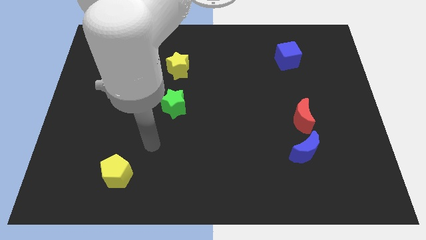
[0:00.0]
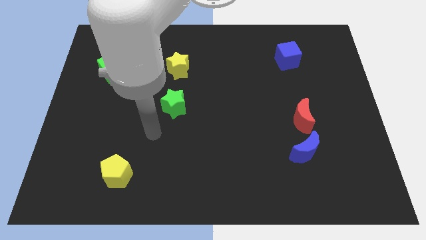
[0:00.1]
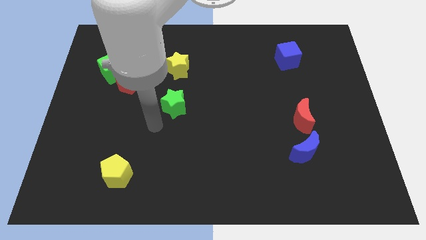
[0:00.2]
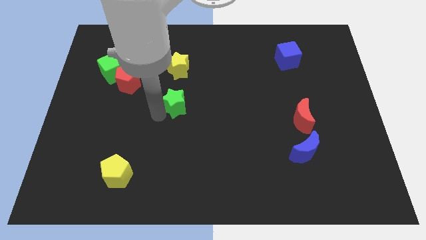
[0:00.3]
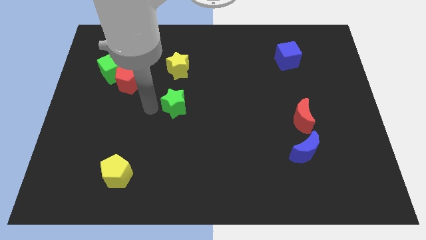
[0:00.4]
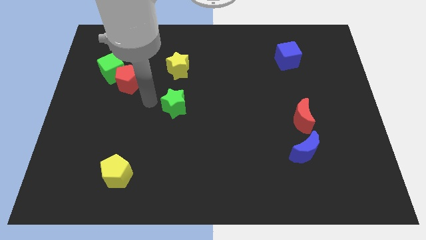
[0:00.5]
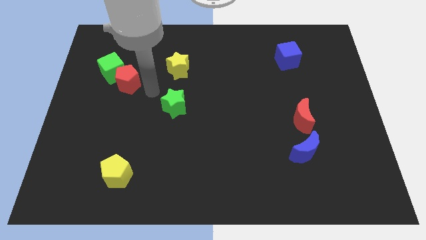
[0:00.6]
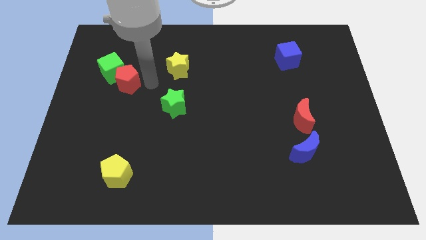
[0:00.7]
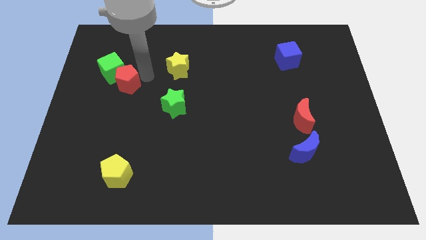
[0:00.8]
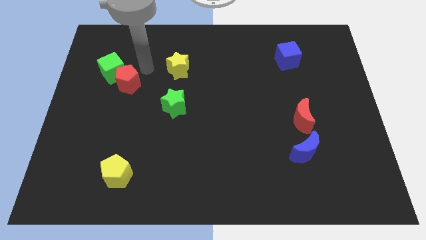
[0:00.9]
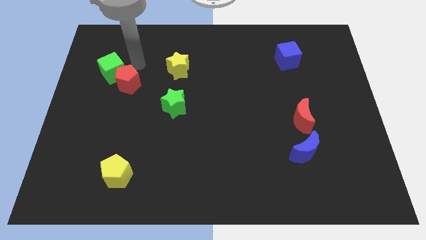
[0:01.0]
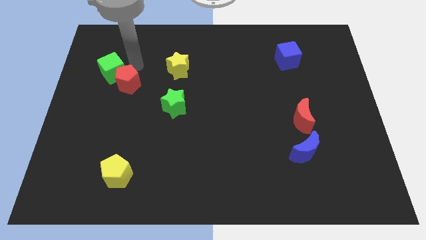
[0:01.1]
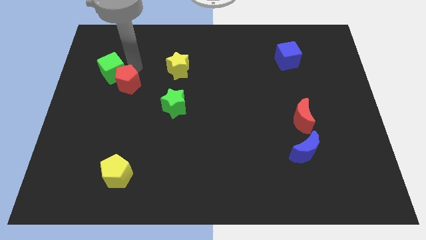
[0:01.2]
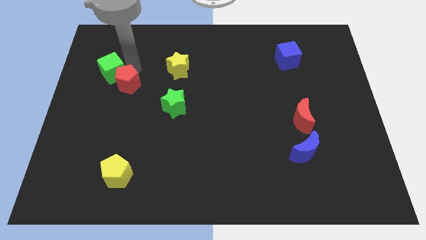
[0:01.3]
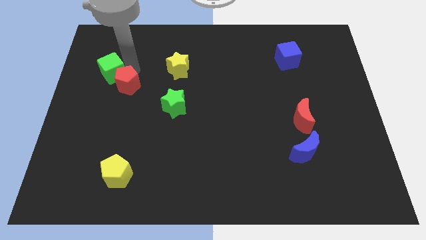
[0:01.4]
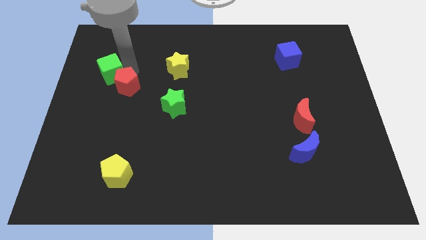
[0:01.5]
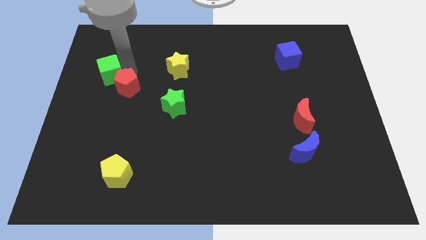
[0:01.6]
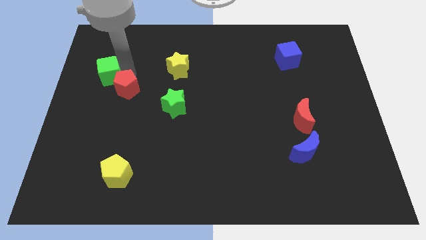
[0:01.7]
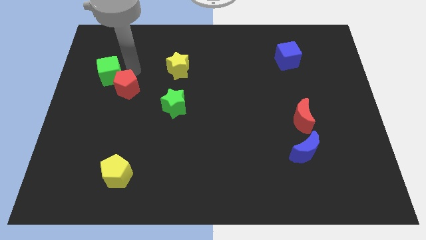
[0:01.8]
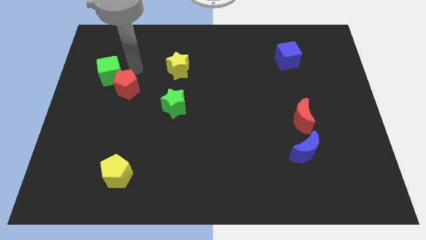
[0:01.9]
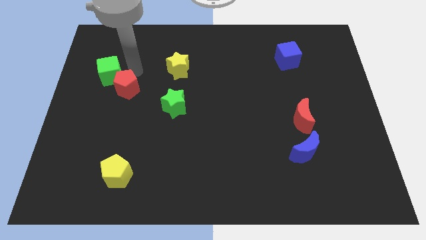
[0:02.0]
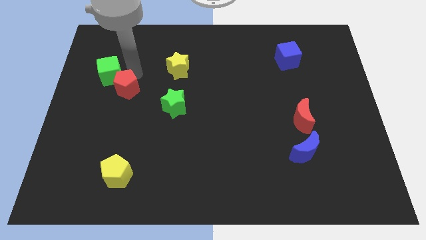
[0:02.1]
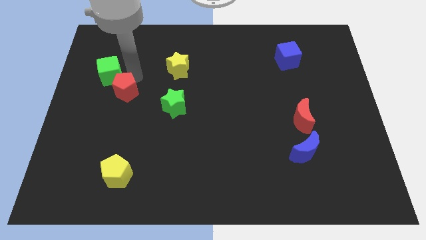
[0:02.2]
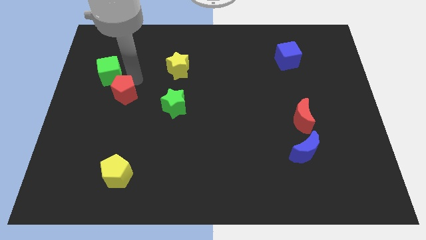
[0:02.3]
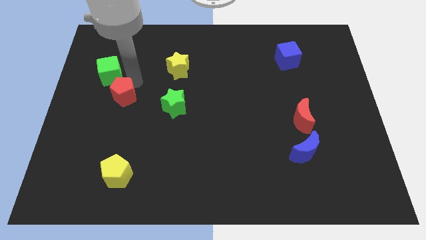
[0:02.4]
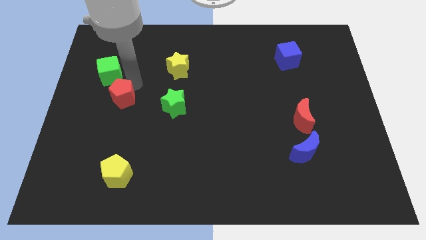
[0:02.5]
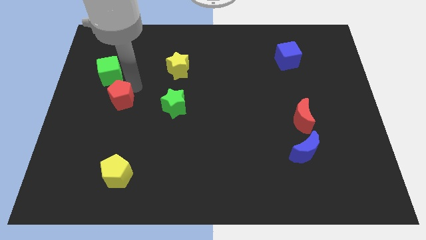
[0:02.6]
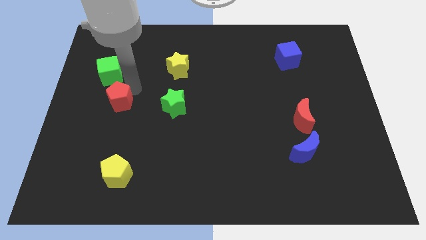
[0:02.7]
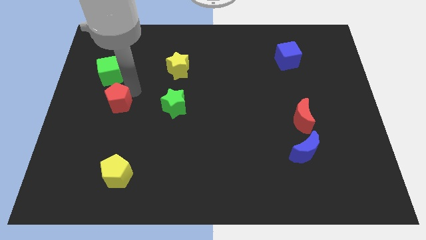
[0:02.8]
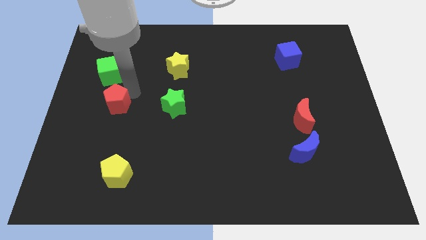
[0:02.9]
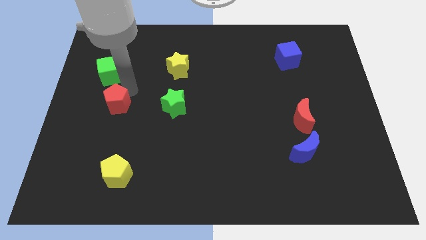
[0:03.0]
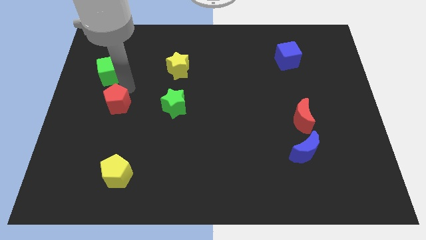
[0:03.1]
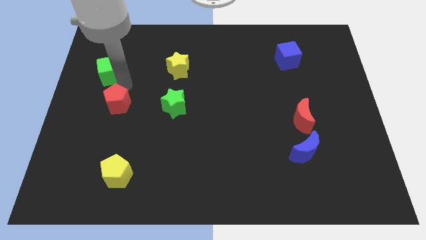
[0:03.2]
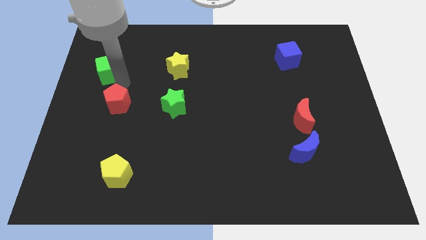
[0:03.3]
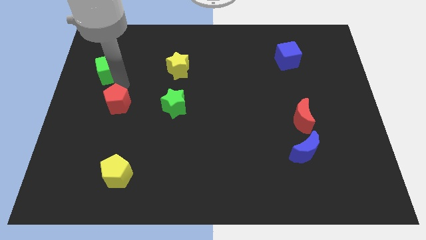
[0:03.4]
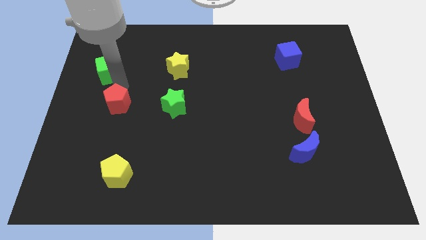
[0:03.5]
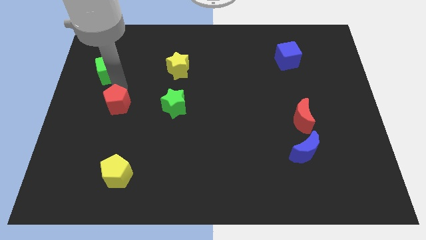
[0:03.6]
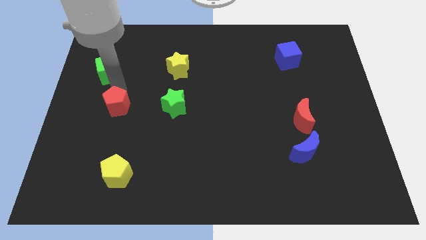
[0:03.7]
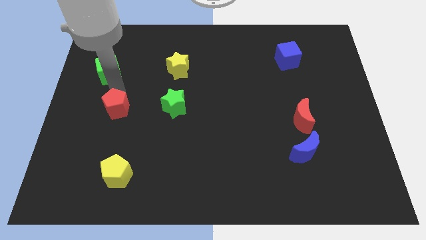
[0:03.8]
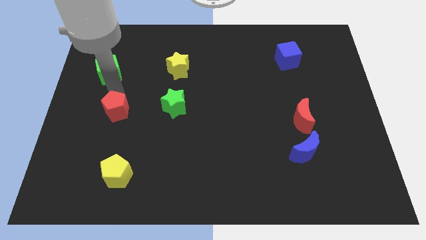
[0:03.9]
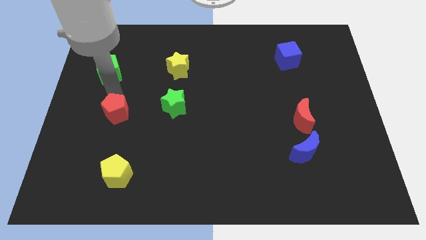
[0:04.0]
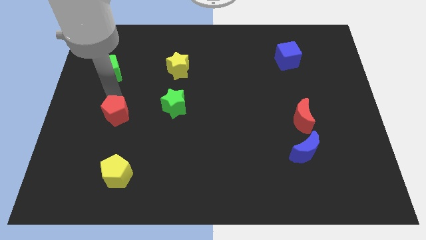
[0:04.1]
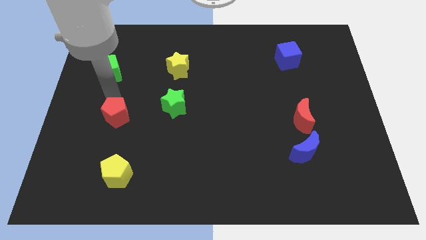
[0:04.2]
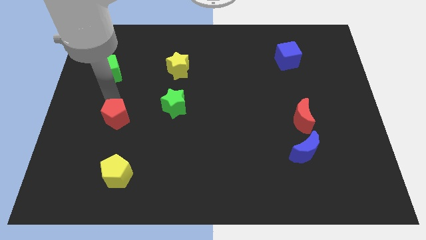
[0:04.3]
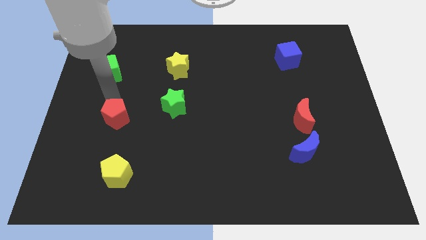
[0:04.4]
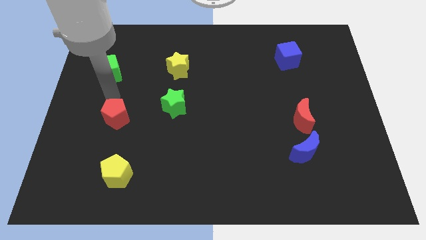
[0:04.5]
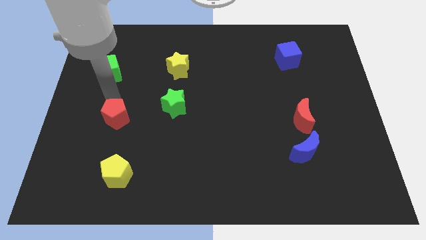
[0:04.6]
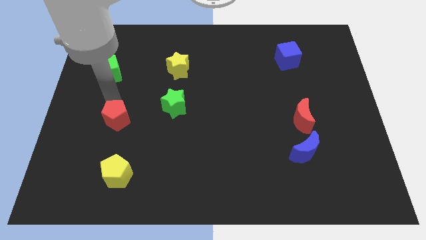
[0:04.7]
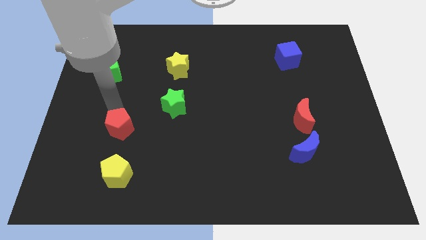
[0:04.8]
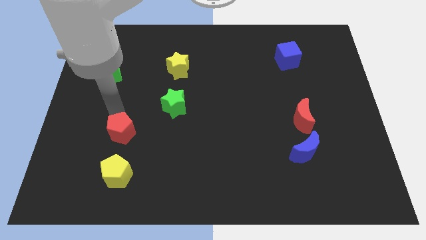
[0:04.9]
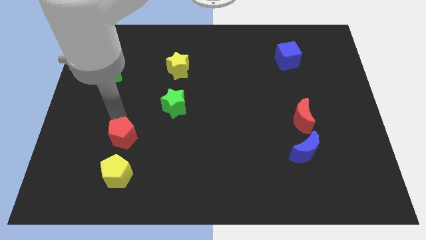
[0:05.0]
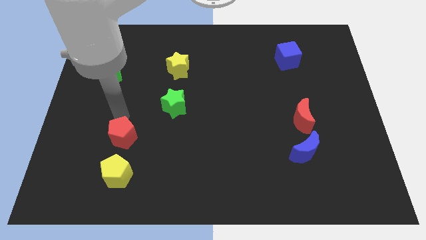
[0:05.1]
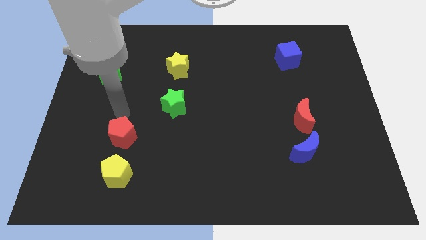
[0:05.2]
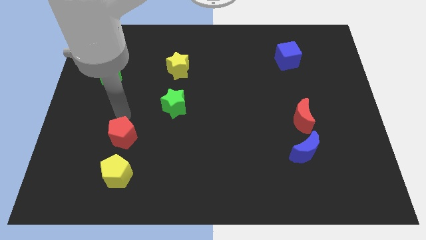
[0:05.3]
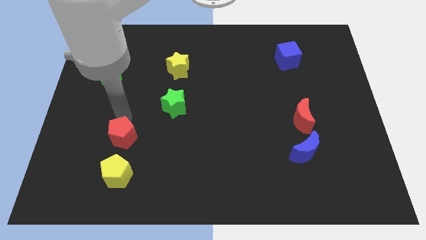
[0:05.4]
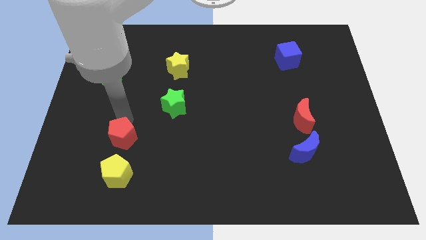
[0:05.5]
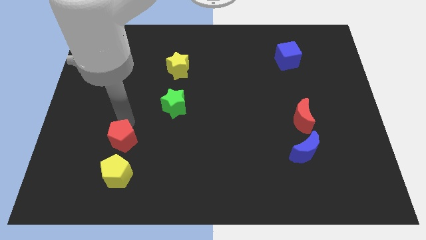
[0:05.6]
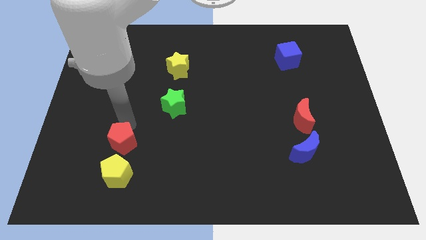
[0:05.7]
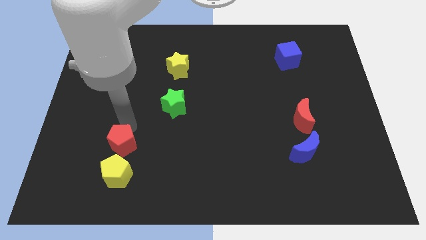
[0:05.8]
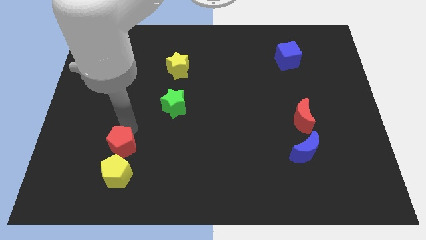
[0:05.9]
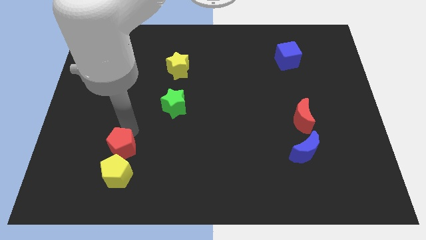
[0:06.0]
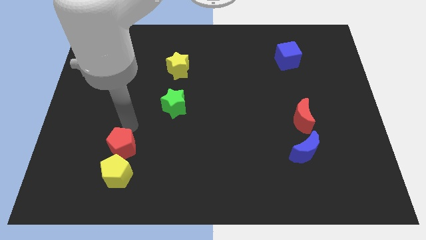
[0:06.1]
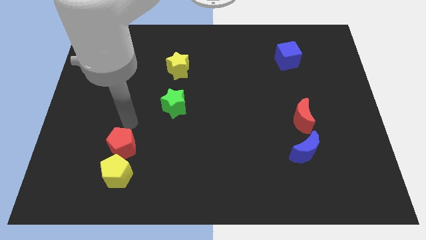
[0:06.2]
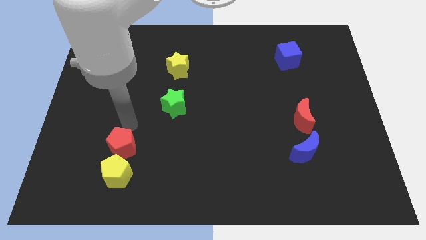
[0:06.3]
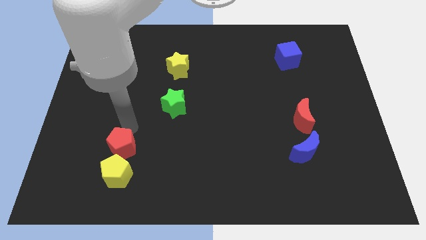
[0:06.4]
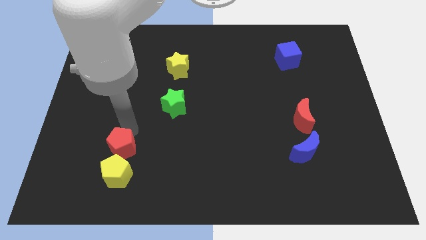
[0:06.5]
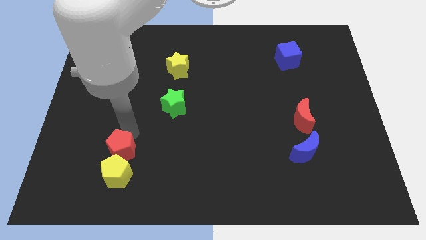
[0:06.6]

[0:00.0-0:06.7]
push the red pentagon to the yellow pentagon
